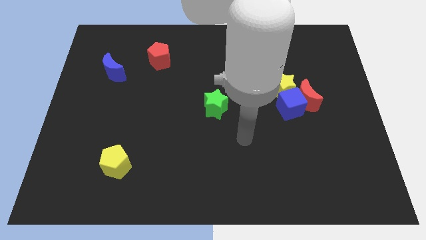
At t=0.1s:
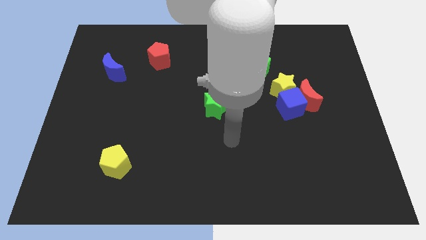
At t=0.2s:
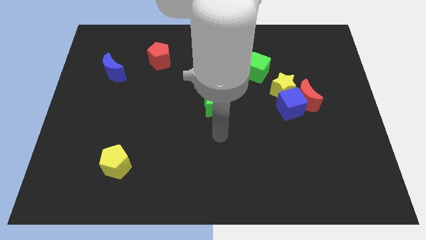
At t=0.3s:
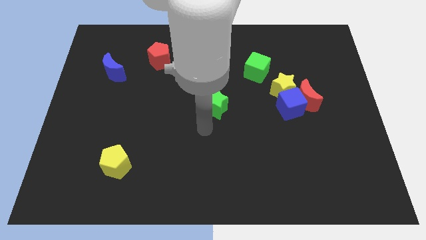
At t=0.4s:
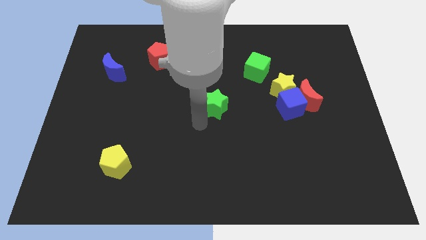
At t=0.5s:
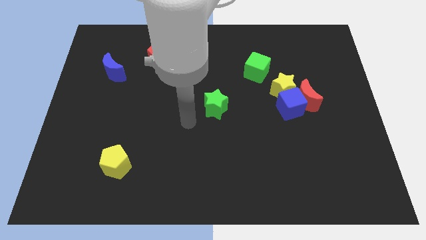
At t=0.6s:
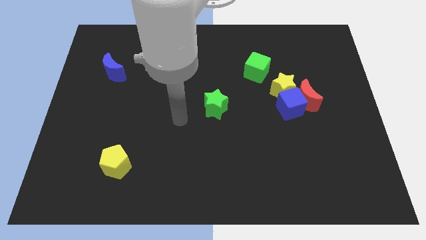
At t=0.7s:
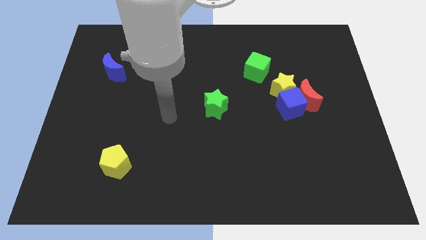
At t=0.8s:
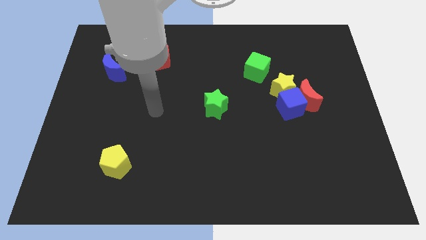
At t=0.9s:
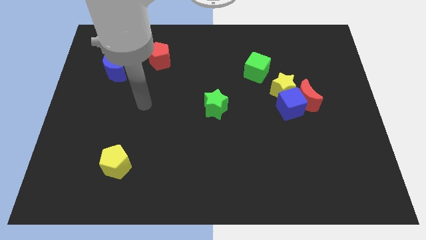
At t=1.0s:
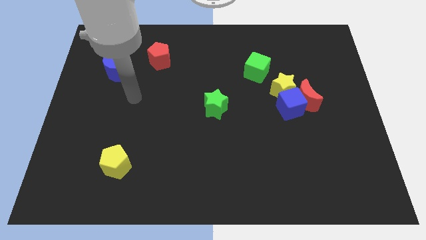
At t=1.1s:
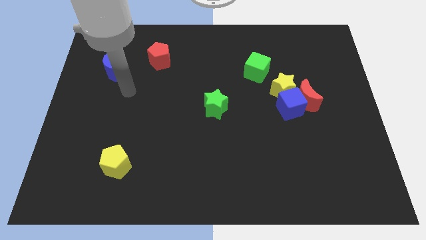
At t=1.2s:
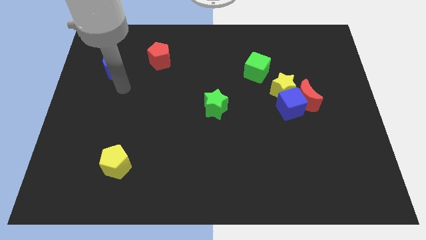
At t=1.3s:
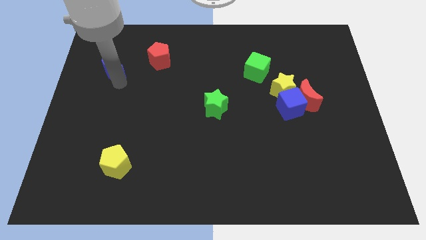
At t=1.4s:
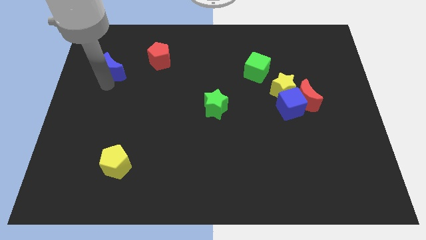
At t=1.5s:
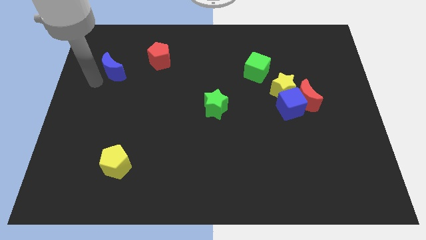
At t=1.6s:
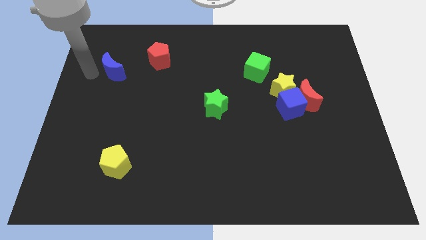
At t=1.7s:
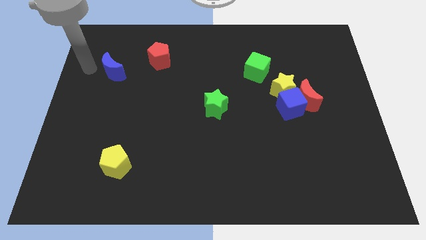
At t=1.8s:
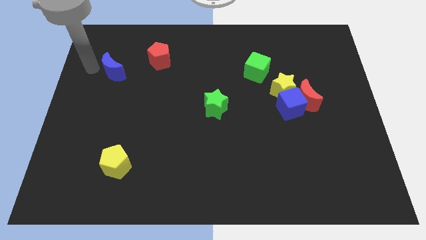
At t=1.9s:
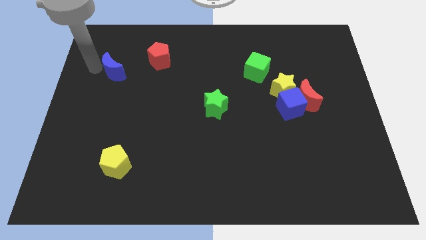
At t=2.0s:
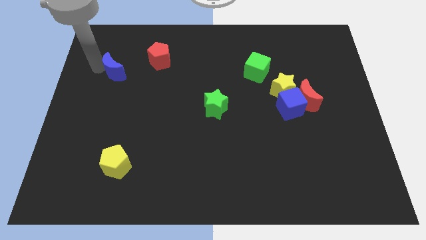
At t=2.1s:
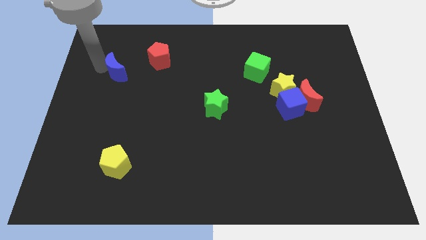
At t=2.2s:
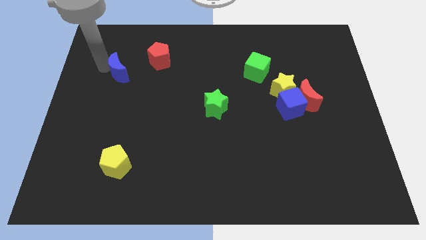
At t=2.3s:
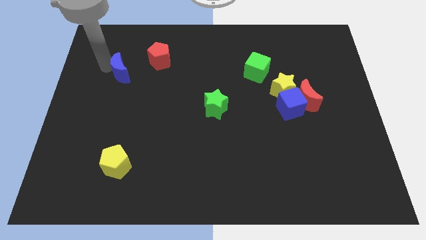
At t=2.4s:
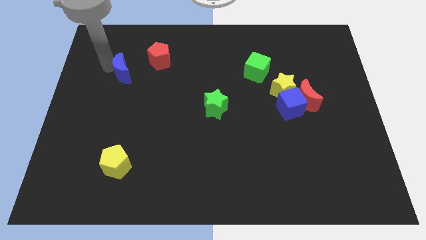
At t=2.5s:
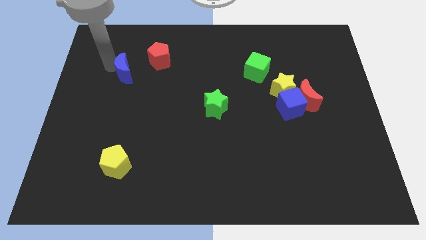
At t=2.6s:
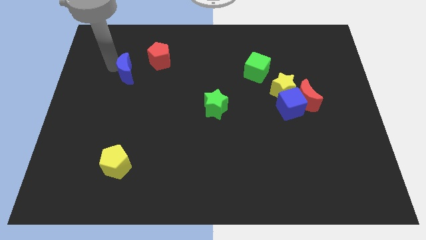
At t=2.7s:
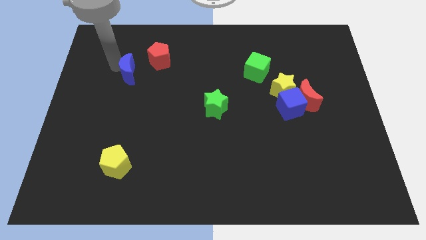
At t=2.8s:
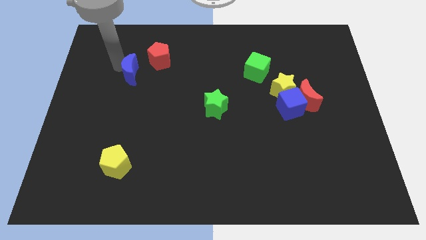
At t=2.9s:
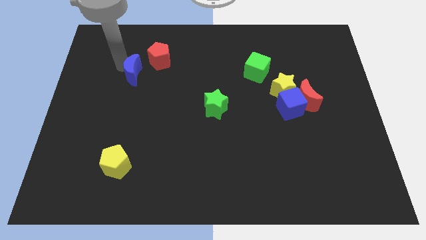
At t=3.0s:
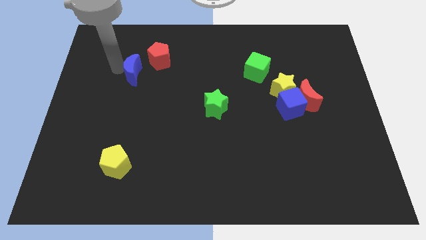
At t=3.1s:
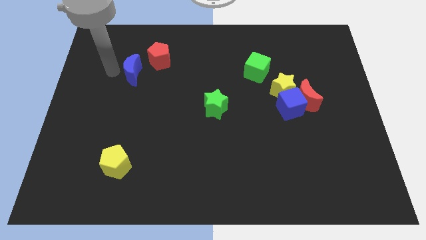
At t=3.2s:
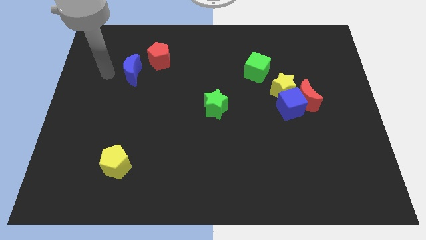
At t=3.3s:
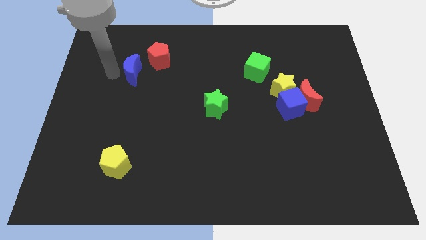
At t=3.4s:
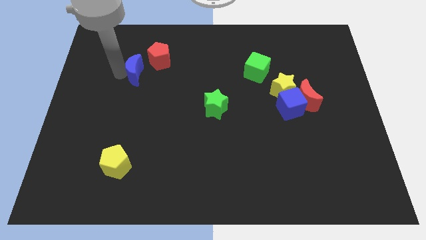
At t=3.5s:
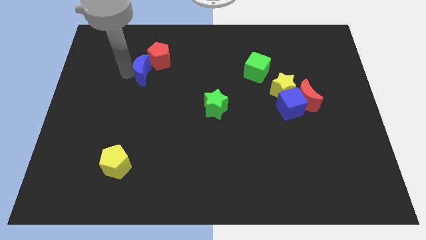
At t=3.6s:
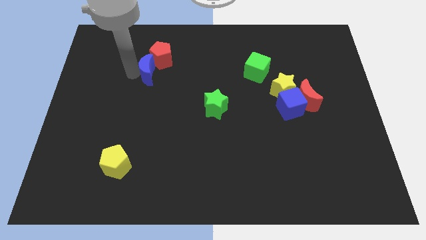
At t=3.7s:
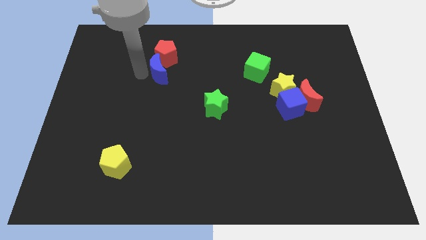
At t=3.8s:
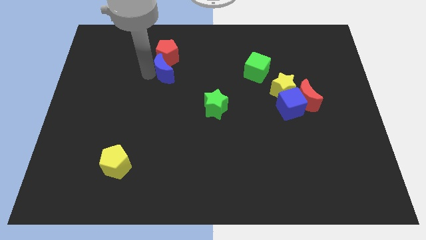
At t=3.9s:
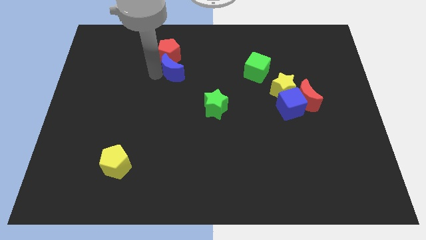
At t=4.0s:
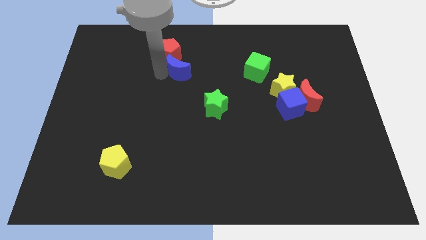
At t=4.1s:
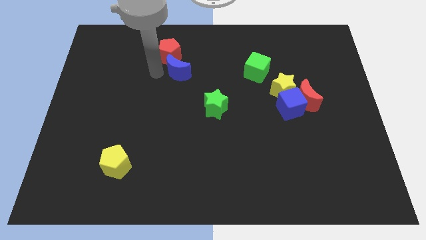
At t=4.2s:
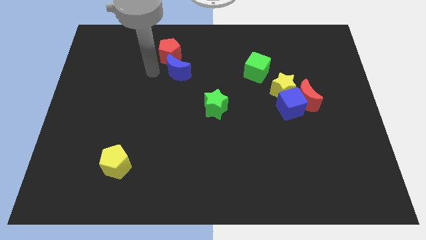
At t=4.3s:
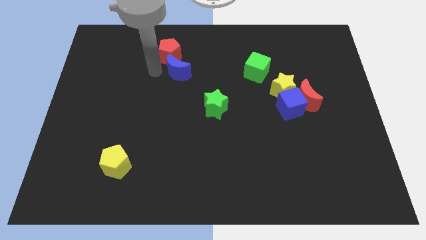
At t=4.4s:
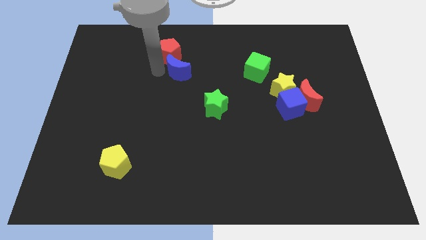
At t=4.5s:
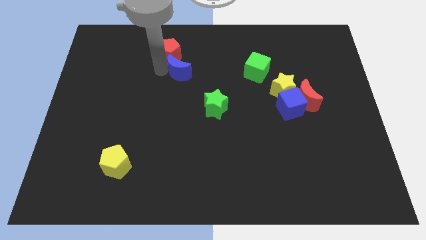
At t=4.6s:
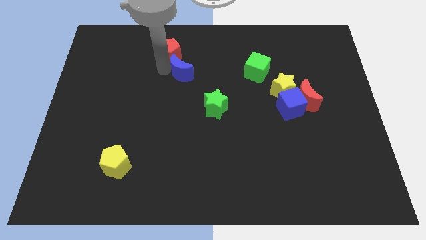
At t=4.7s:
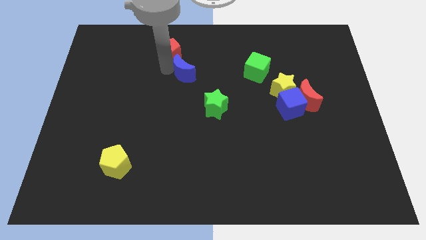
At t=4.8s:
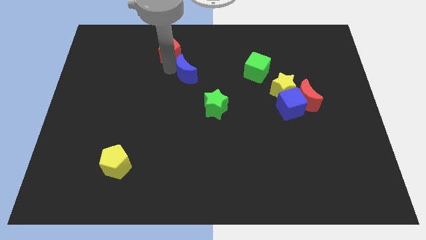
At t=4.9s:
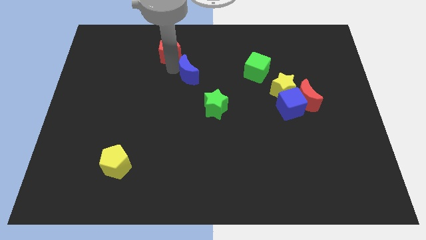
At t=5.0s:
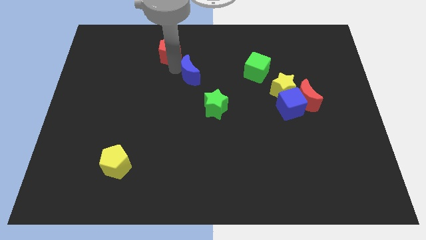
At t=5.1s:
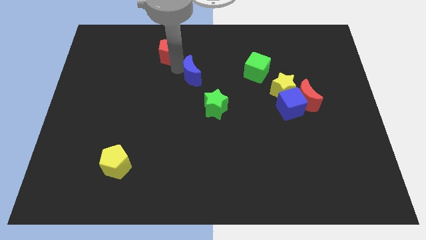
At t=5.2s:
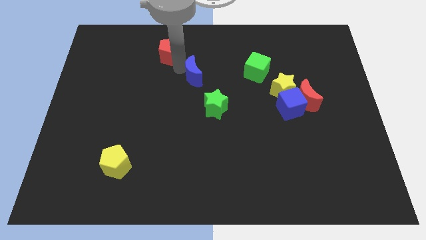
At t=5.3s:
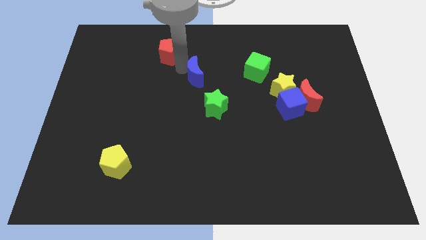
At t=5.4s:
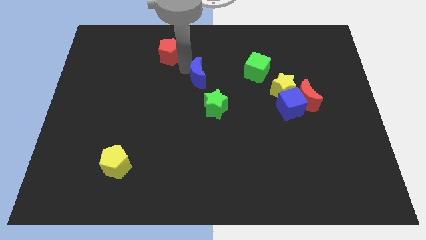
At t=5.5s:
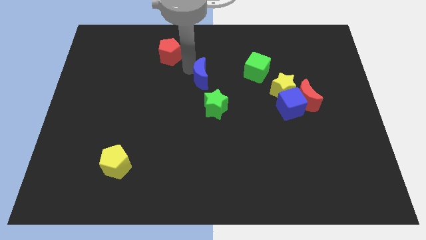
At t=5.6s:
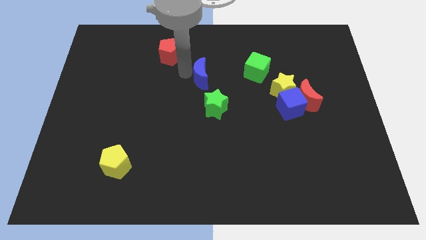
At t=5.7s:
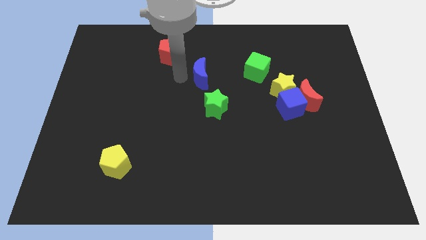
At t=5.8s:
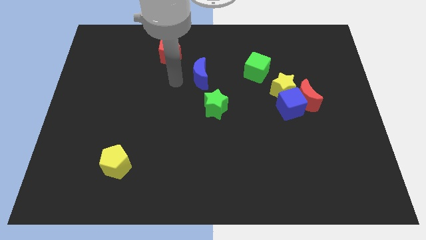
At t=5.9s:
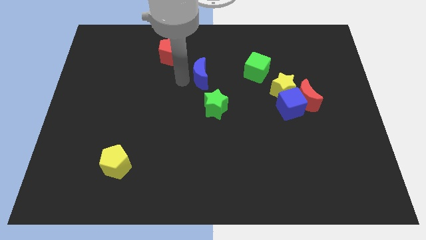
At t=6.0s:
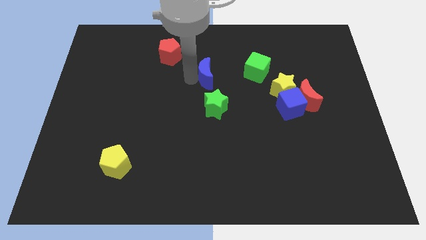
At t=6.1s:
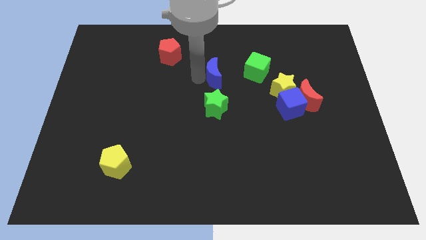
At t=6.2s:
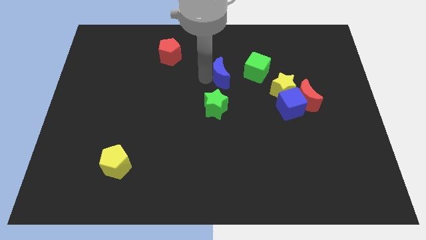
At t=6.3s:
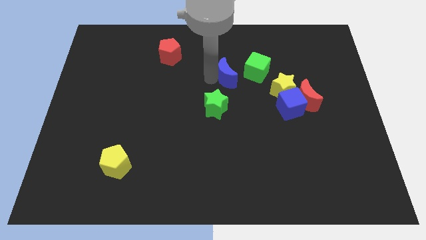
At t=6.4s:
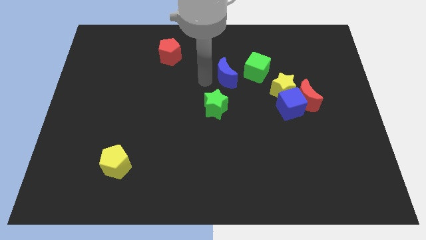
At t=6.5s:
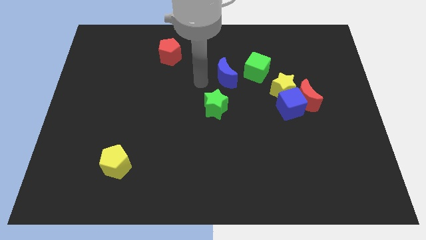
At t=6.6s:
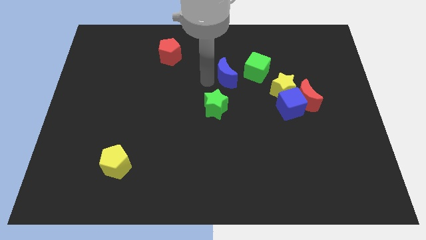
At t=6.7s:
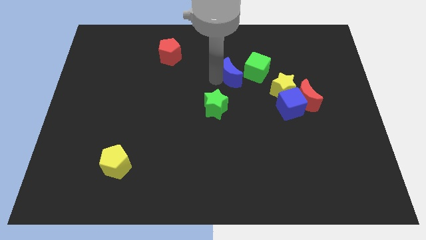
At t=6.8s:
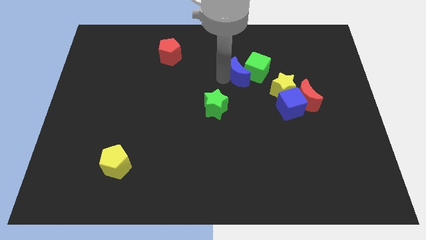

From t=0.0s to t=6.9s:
slide the blue moon towards the green cube
